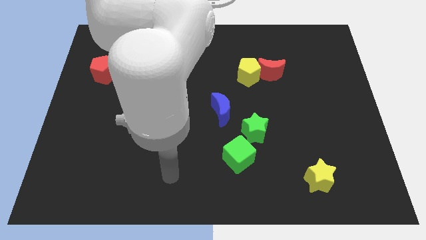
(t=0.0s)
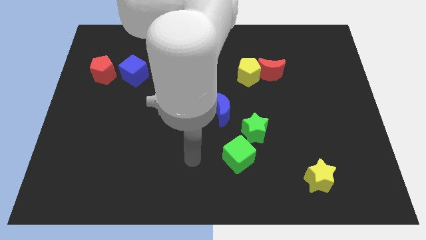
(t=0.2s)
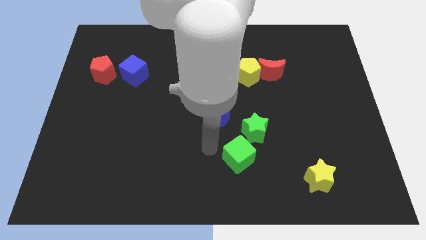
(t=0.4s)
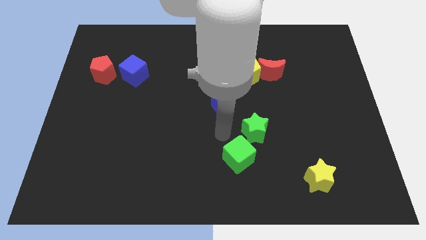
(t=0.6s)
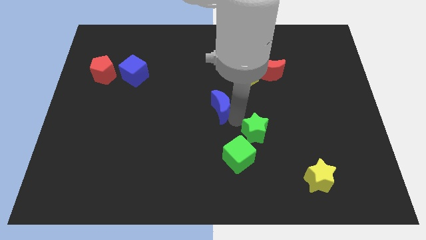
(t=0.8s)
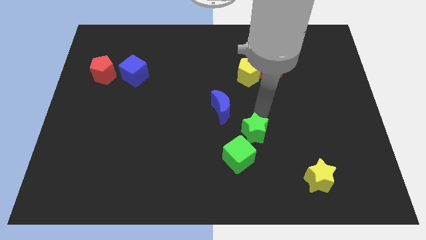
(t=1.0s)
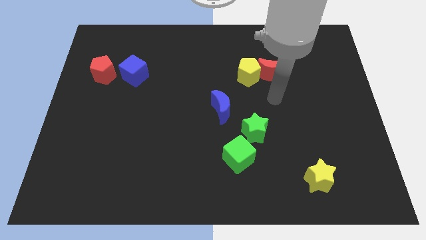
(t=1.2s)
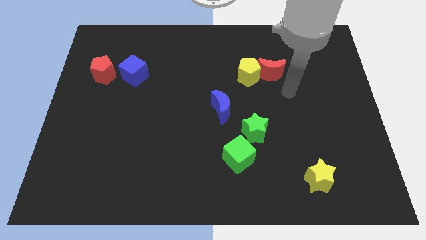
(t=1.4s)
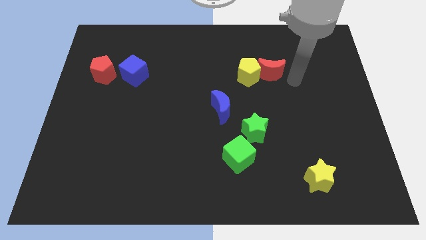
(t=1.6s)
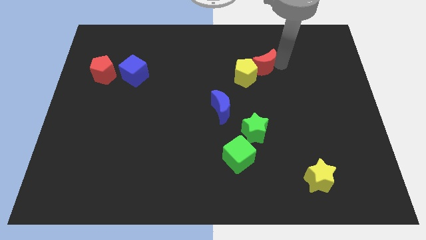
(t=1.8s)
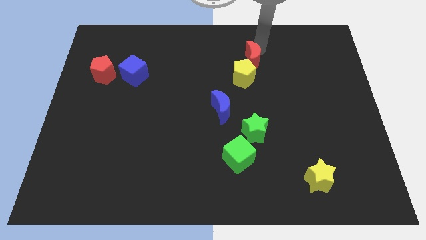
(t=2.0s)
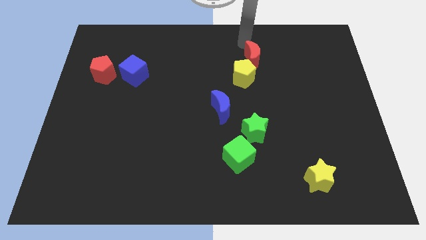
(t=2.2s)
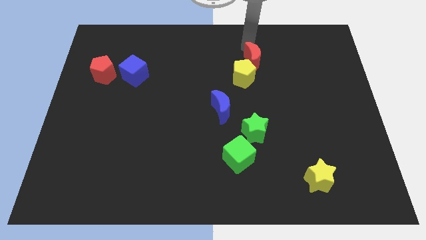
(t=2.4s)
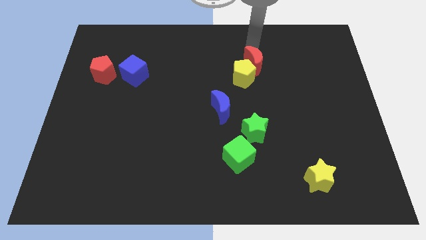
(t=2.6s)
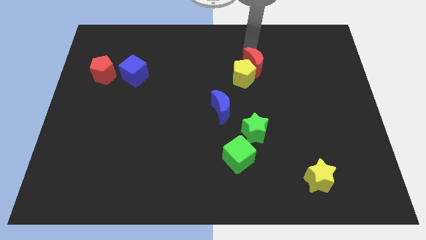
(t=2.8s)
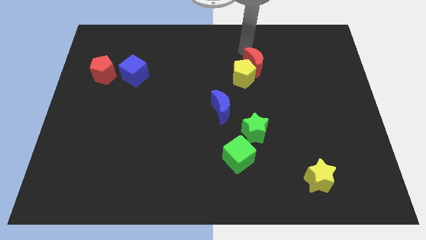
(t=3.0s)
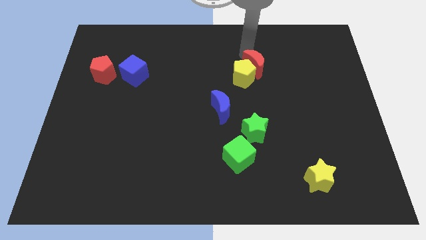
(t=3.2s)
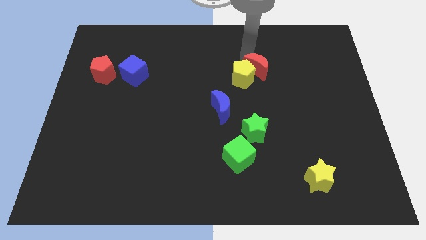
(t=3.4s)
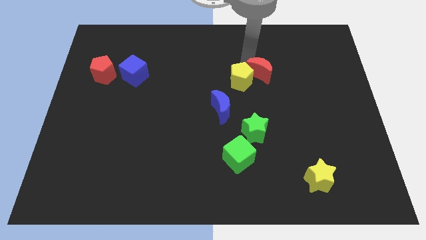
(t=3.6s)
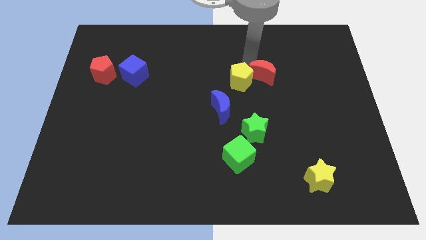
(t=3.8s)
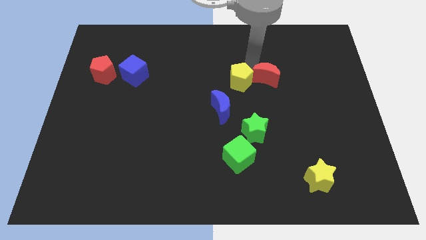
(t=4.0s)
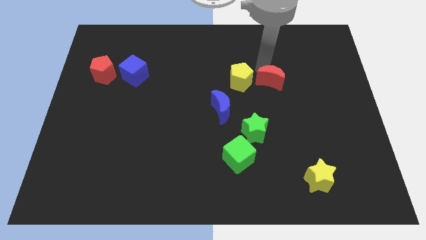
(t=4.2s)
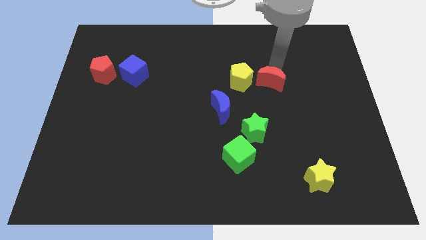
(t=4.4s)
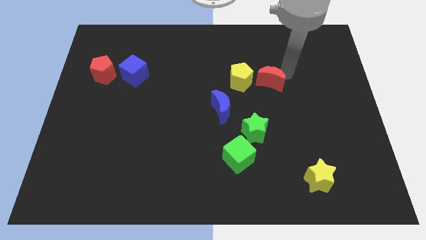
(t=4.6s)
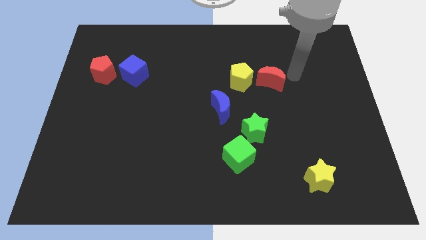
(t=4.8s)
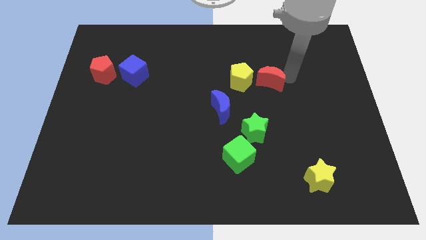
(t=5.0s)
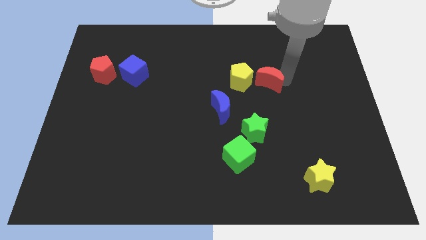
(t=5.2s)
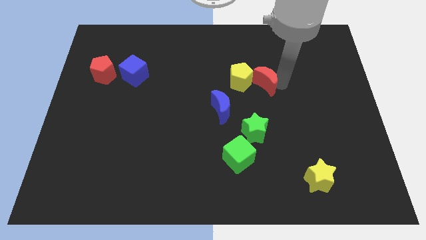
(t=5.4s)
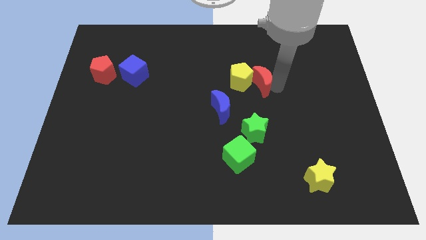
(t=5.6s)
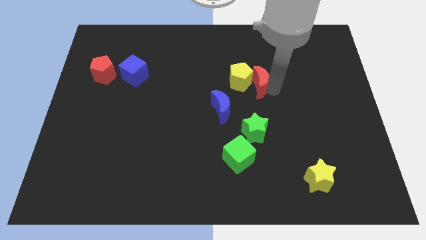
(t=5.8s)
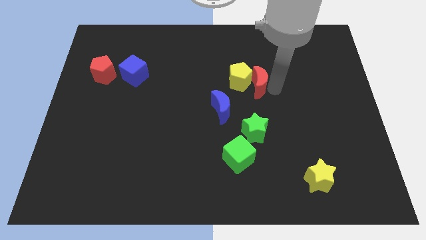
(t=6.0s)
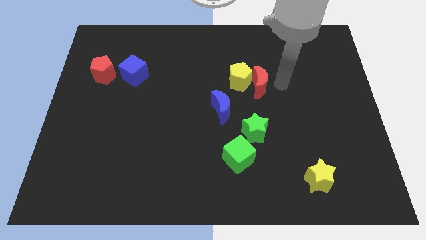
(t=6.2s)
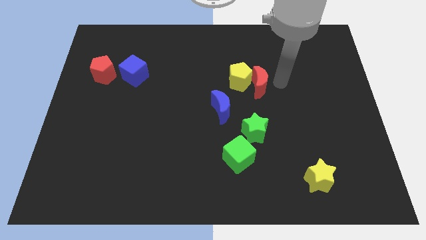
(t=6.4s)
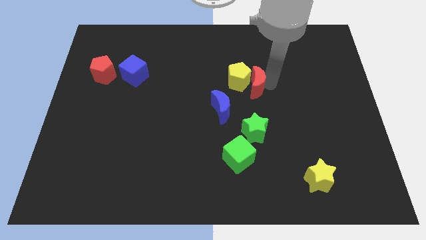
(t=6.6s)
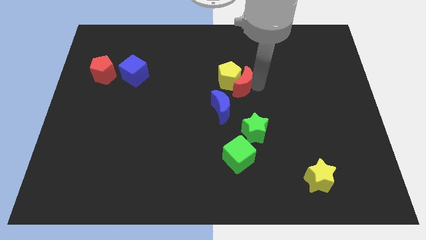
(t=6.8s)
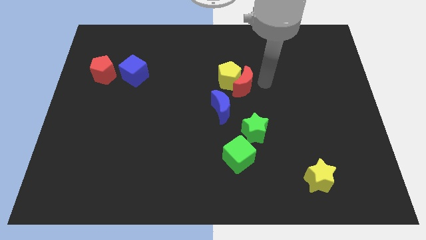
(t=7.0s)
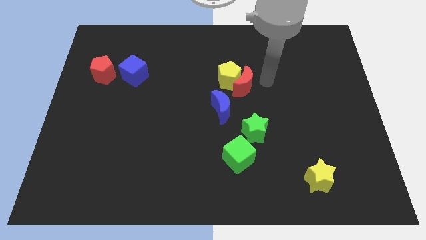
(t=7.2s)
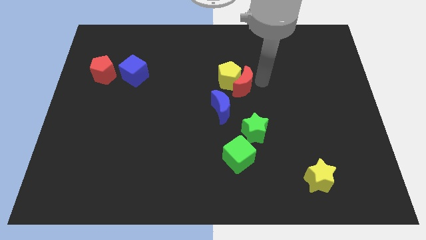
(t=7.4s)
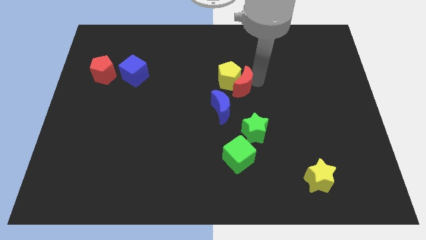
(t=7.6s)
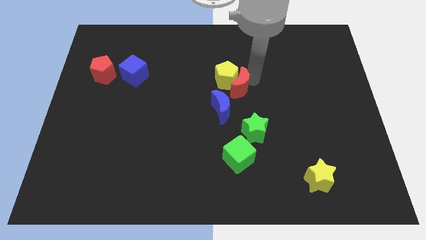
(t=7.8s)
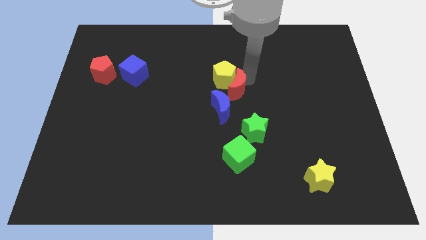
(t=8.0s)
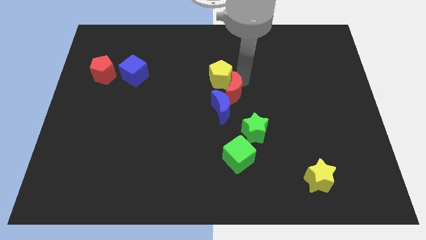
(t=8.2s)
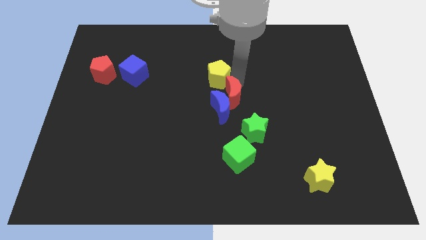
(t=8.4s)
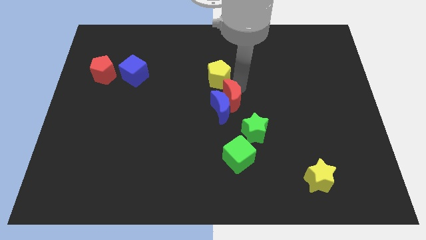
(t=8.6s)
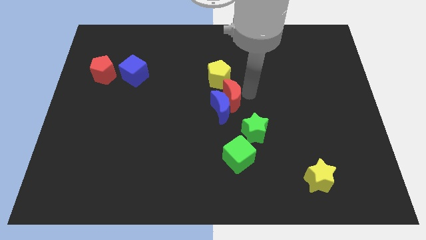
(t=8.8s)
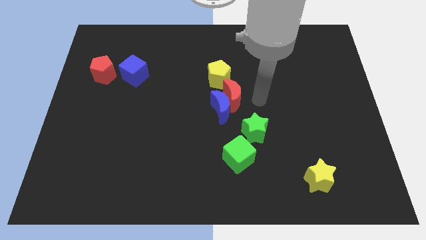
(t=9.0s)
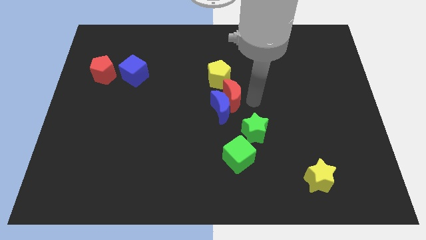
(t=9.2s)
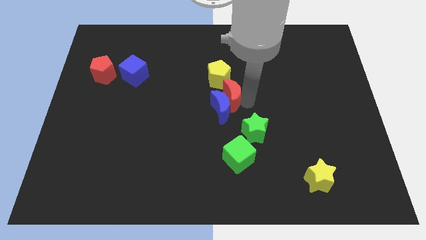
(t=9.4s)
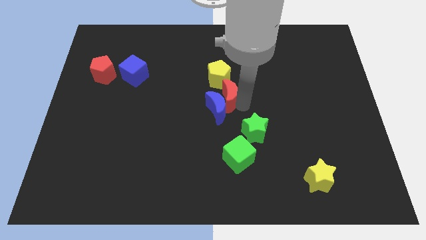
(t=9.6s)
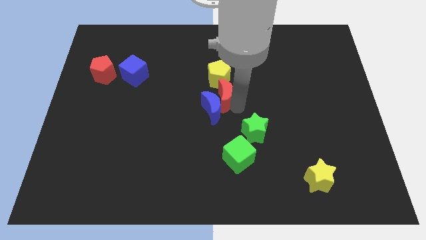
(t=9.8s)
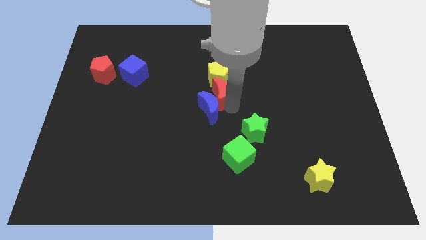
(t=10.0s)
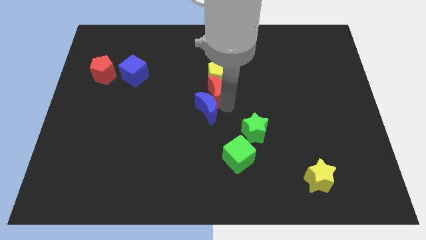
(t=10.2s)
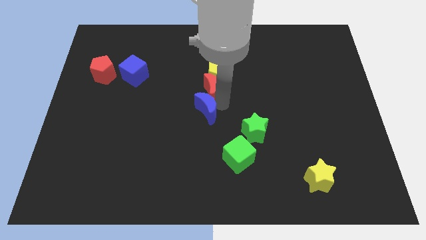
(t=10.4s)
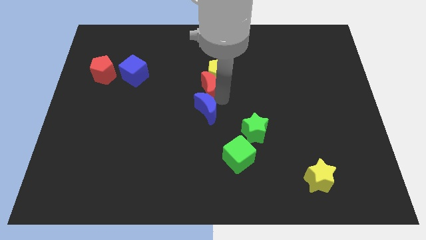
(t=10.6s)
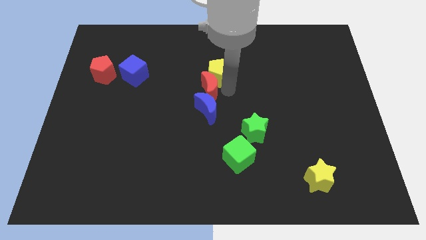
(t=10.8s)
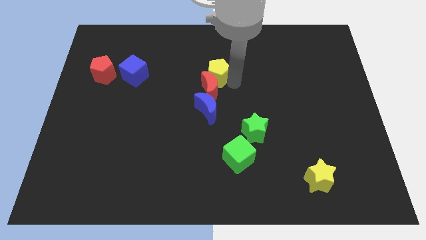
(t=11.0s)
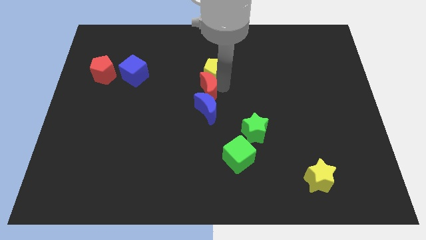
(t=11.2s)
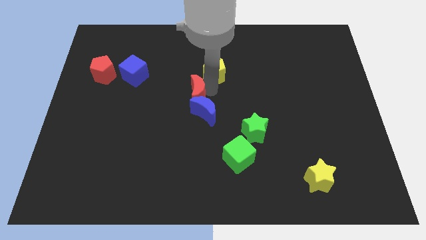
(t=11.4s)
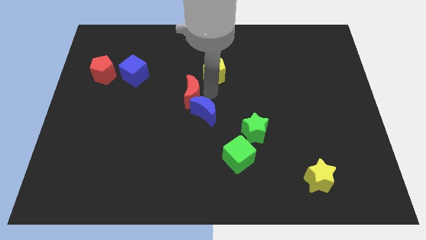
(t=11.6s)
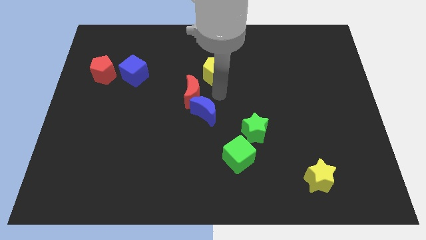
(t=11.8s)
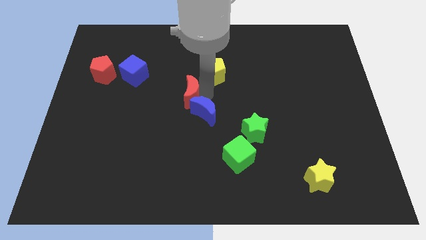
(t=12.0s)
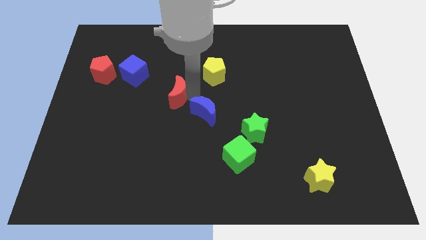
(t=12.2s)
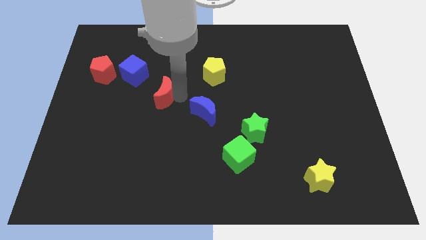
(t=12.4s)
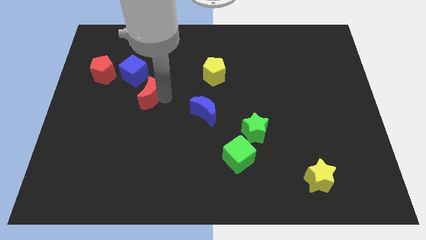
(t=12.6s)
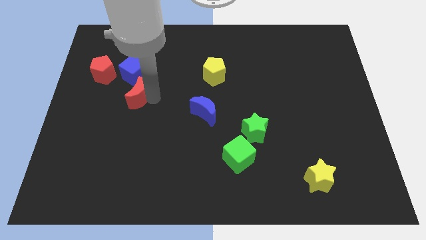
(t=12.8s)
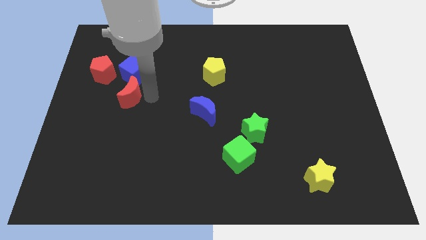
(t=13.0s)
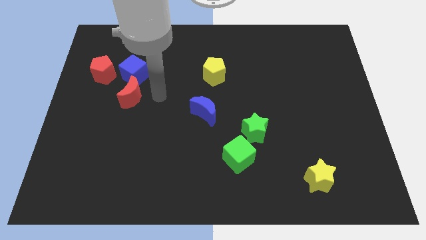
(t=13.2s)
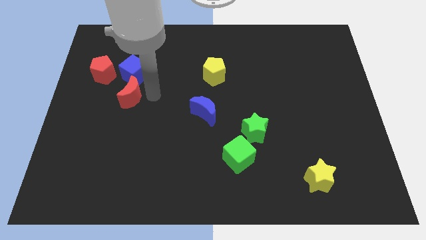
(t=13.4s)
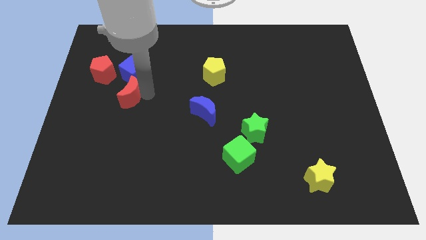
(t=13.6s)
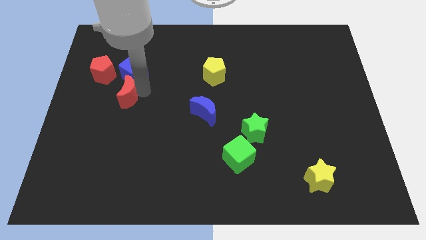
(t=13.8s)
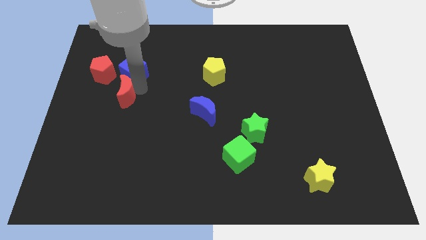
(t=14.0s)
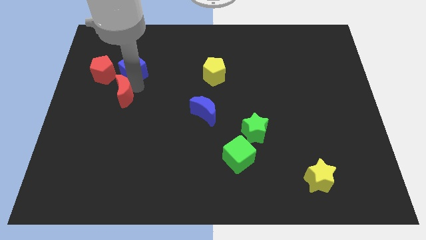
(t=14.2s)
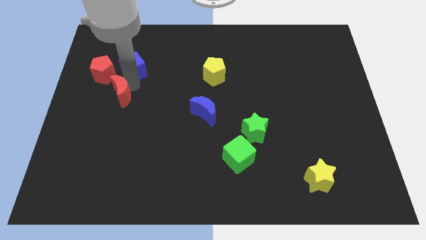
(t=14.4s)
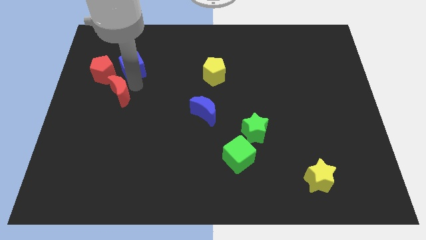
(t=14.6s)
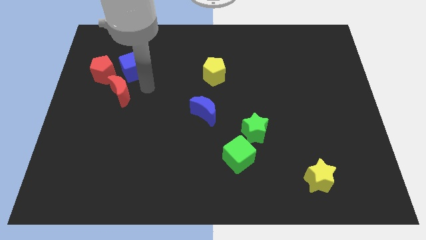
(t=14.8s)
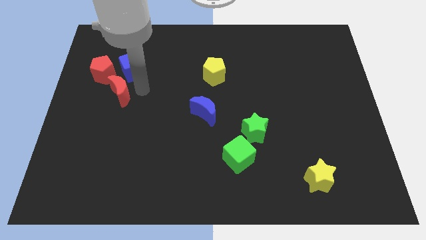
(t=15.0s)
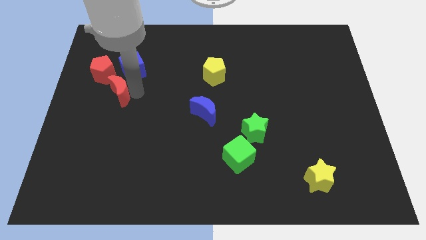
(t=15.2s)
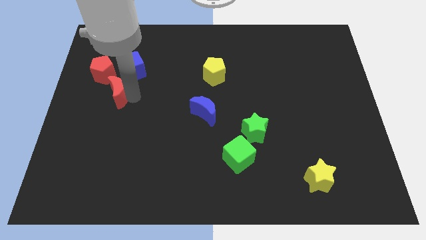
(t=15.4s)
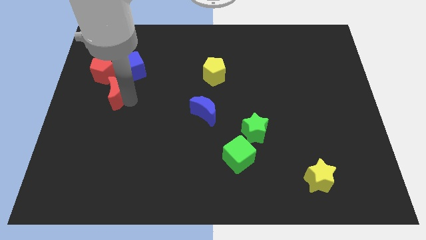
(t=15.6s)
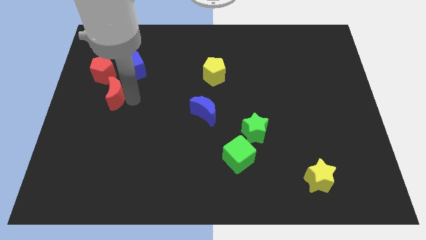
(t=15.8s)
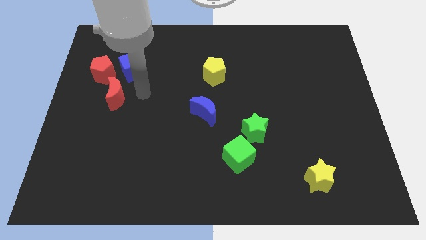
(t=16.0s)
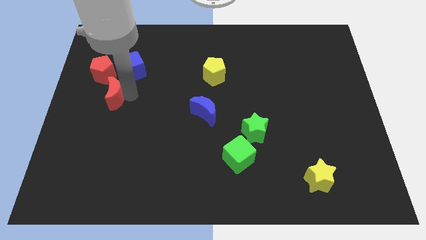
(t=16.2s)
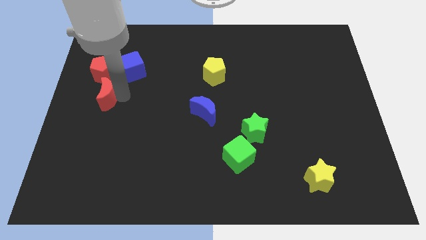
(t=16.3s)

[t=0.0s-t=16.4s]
push the red moon to the left side of the board
